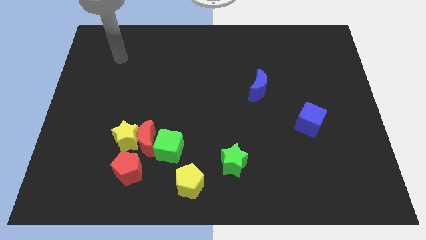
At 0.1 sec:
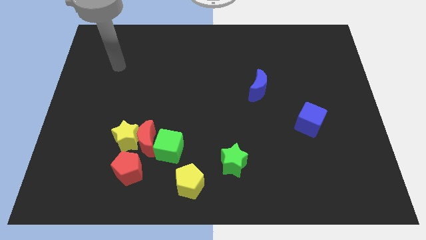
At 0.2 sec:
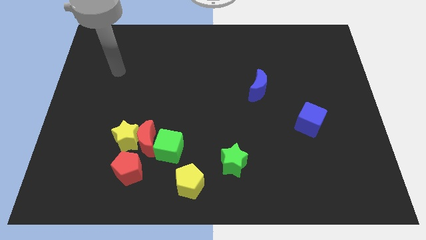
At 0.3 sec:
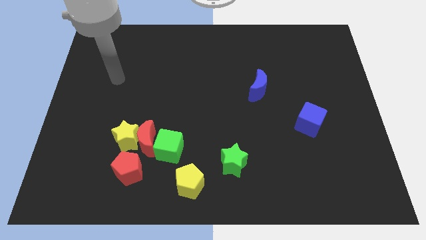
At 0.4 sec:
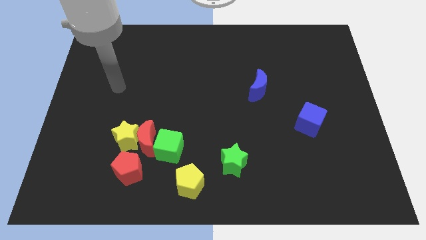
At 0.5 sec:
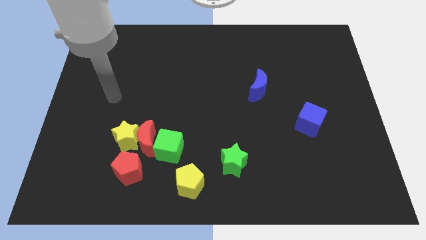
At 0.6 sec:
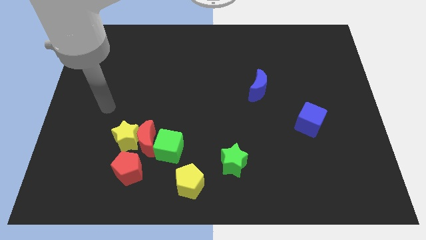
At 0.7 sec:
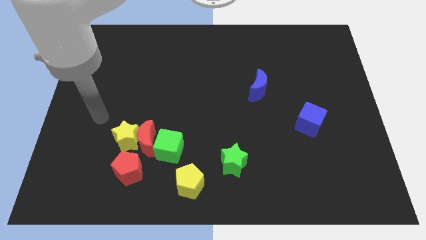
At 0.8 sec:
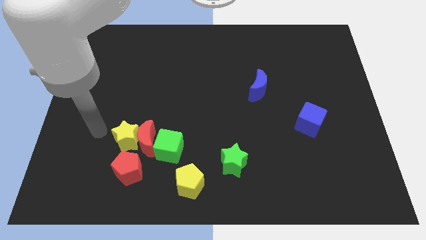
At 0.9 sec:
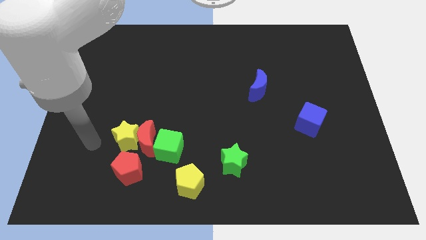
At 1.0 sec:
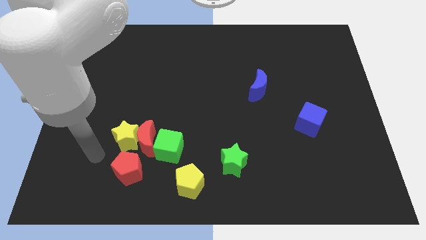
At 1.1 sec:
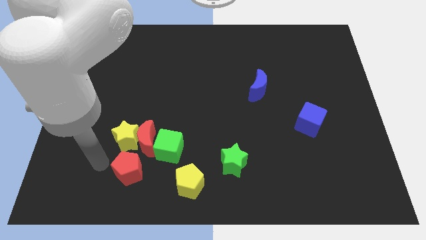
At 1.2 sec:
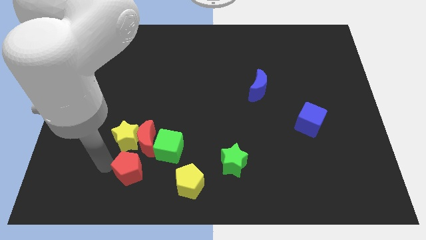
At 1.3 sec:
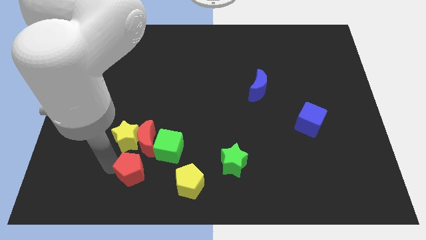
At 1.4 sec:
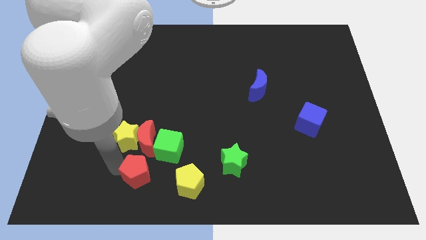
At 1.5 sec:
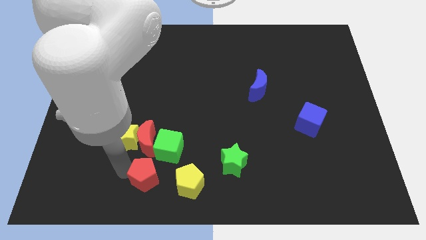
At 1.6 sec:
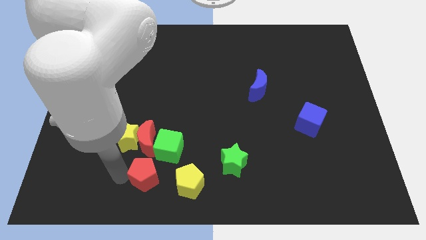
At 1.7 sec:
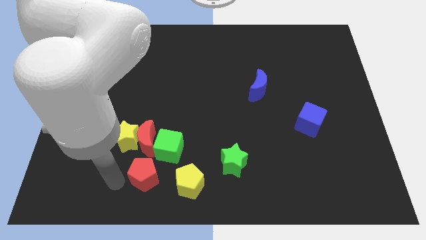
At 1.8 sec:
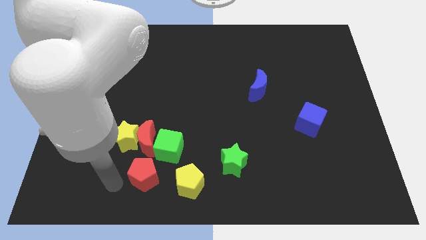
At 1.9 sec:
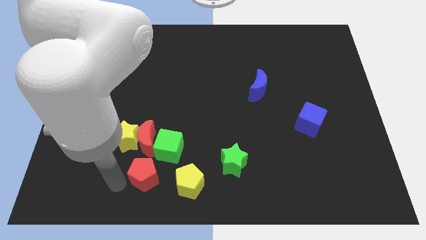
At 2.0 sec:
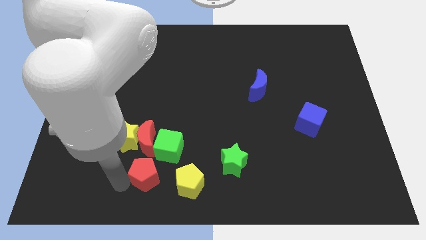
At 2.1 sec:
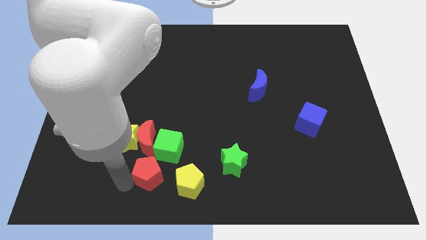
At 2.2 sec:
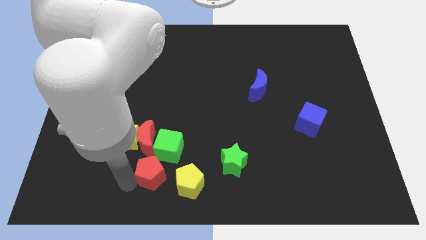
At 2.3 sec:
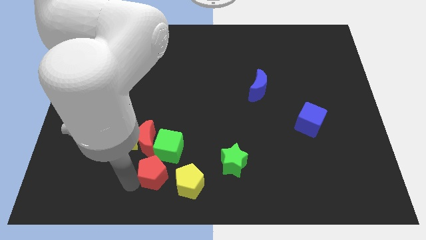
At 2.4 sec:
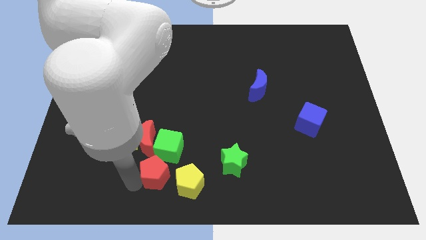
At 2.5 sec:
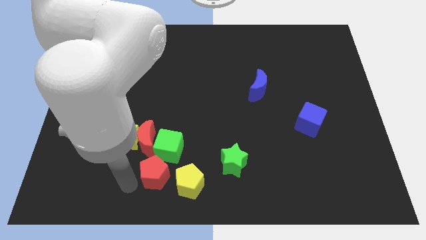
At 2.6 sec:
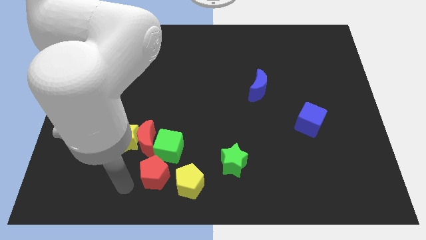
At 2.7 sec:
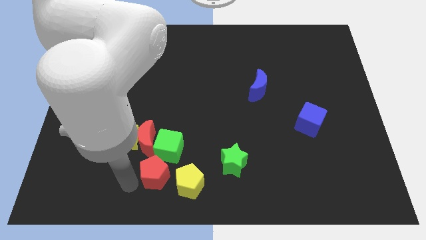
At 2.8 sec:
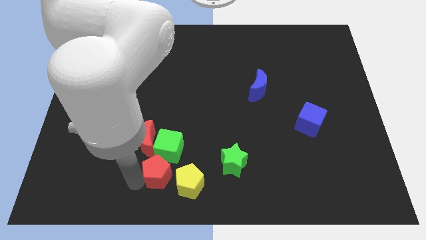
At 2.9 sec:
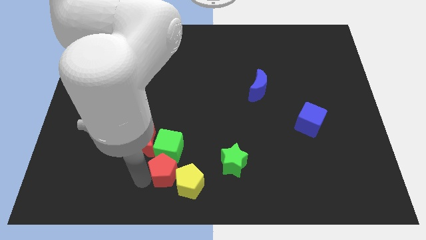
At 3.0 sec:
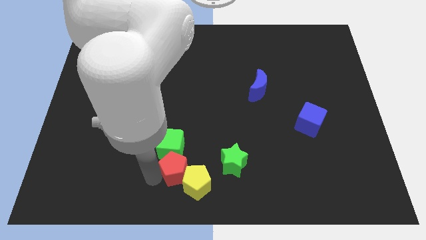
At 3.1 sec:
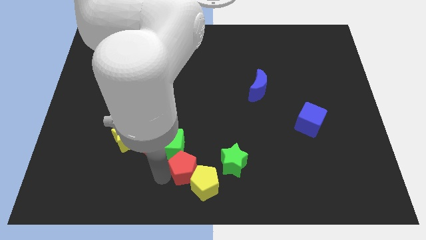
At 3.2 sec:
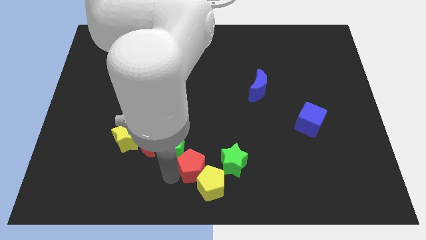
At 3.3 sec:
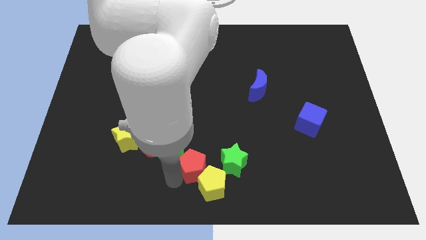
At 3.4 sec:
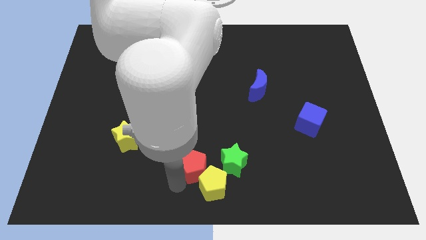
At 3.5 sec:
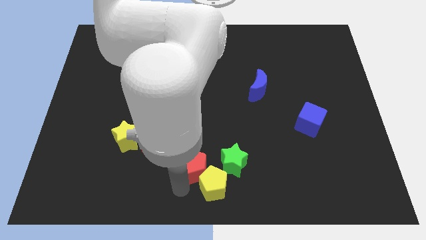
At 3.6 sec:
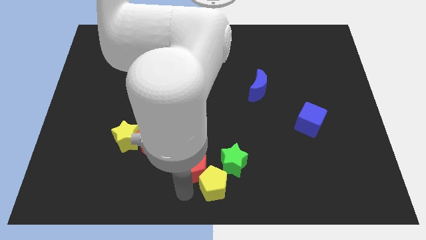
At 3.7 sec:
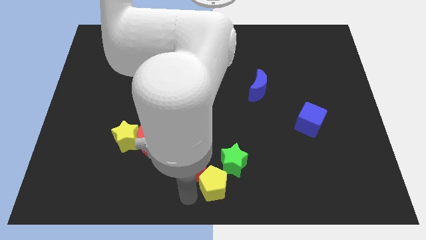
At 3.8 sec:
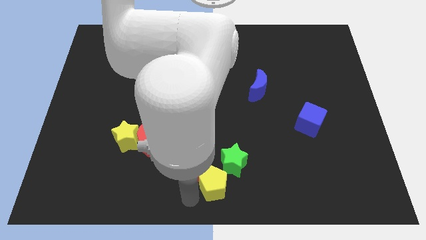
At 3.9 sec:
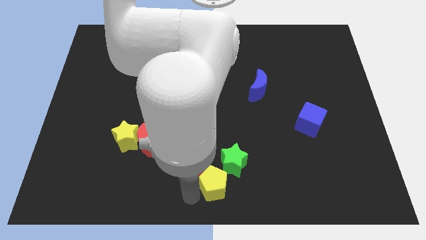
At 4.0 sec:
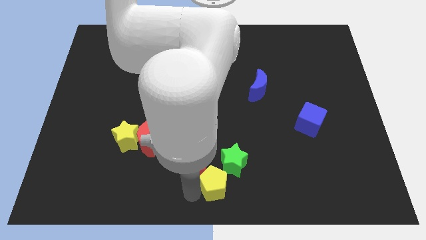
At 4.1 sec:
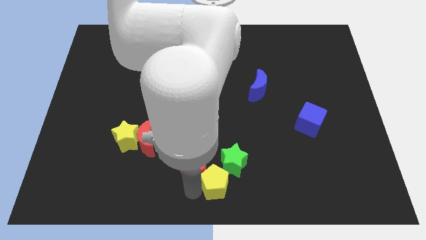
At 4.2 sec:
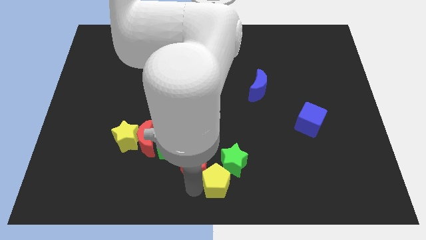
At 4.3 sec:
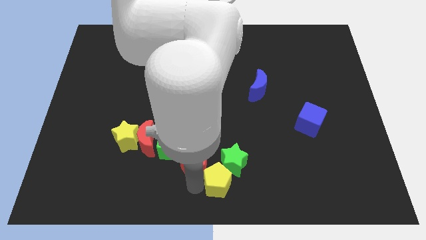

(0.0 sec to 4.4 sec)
slightly slide the red pentagon up and to the right diagonally

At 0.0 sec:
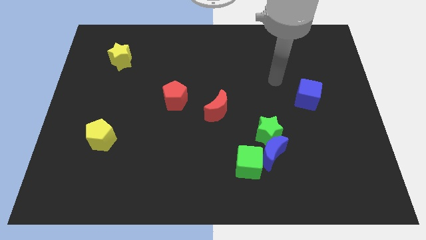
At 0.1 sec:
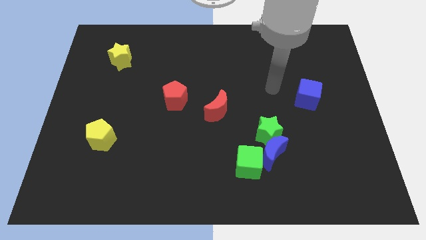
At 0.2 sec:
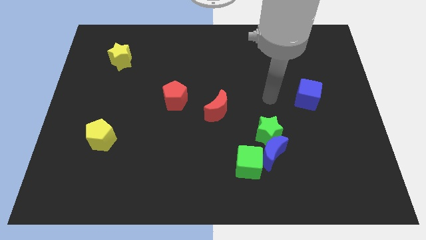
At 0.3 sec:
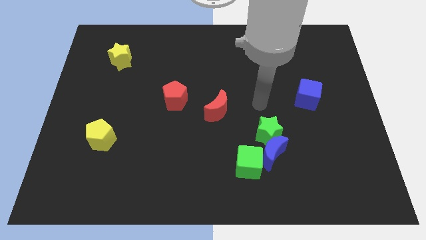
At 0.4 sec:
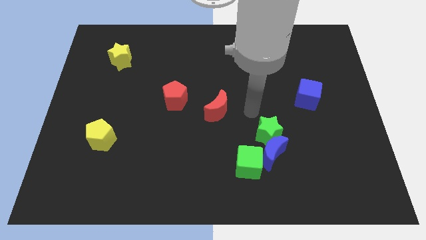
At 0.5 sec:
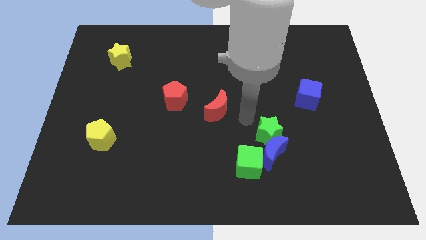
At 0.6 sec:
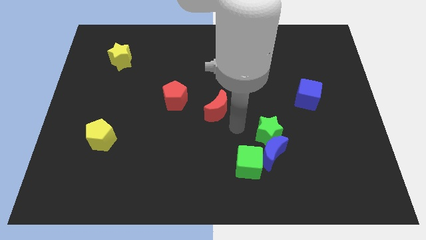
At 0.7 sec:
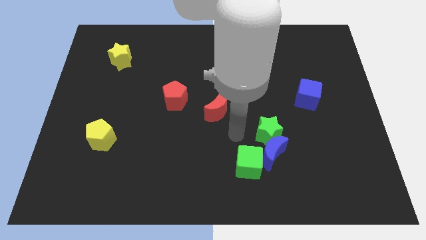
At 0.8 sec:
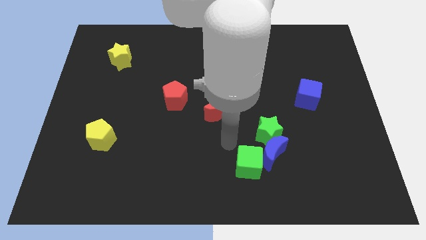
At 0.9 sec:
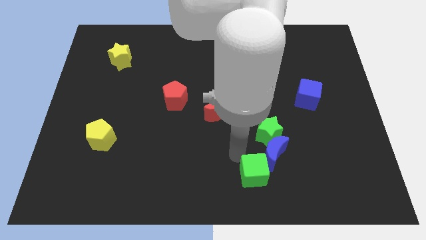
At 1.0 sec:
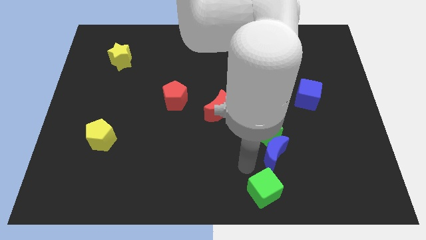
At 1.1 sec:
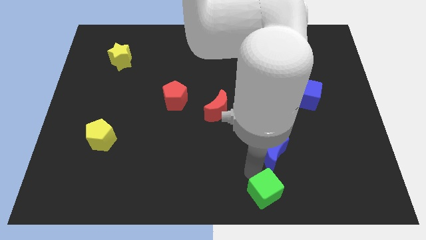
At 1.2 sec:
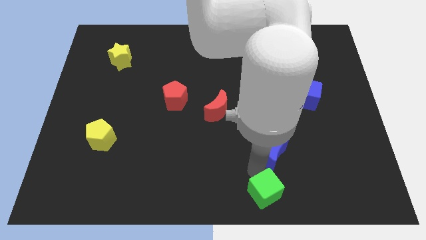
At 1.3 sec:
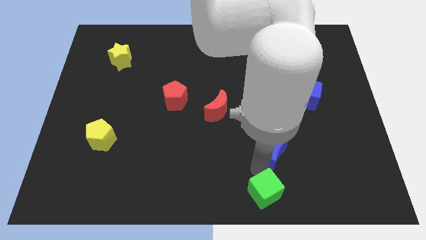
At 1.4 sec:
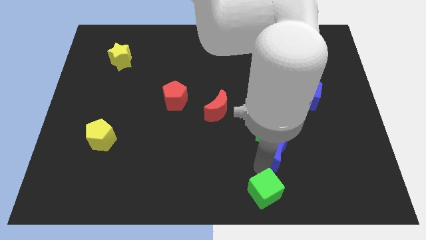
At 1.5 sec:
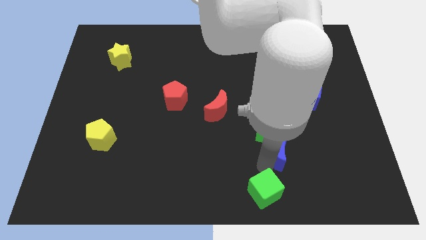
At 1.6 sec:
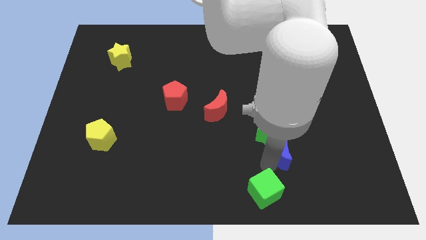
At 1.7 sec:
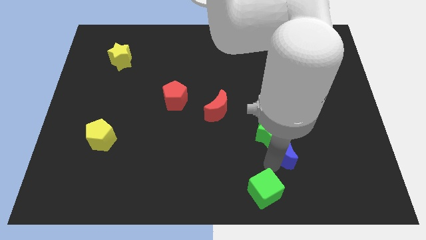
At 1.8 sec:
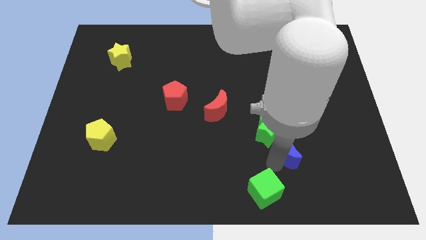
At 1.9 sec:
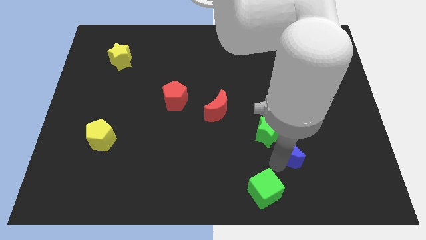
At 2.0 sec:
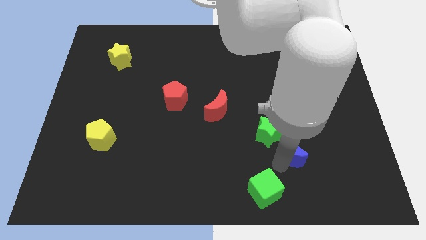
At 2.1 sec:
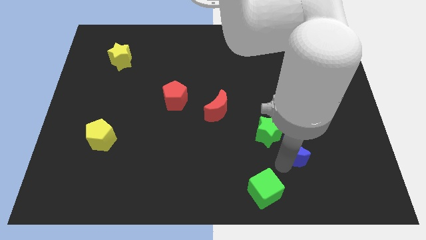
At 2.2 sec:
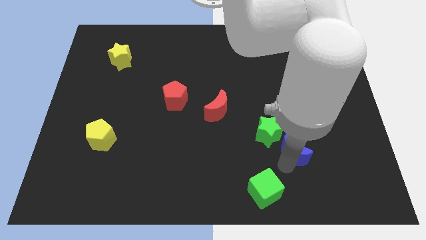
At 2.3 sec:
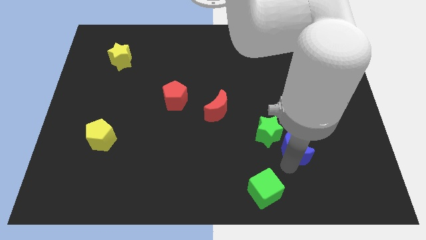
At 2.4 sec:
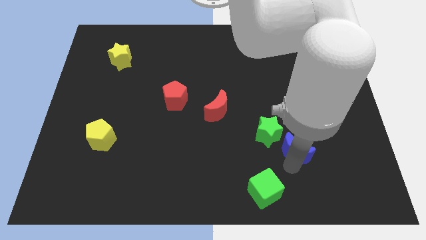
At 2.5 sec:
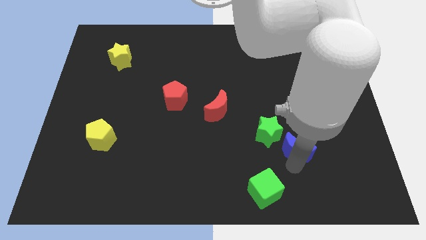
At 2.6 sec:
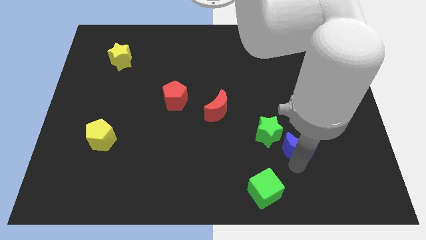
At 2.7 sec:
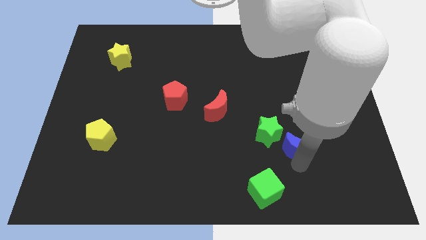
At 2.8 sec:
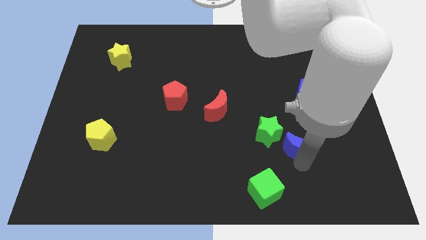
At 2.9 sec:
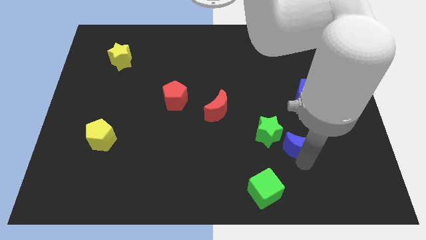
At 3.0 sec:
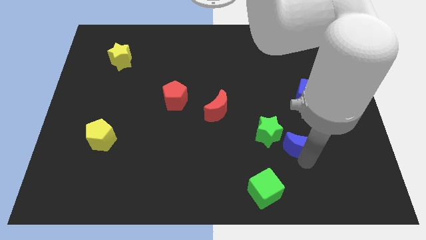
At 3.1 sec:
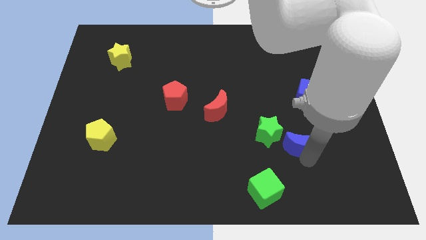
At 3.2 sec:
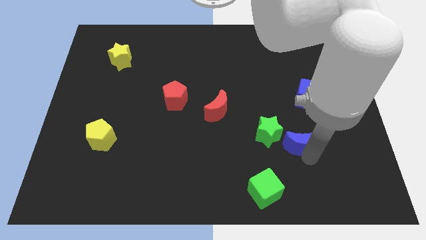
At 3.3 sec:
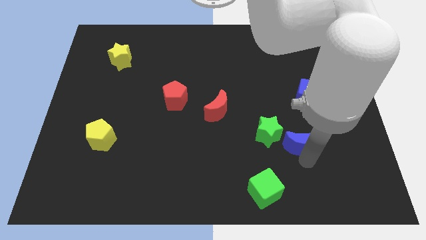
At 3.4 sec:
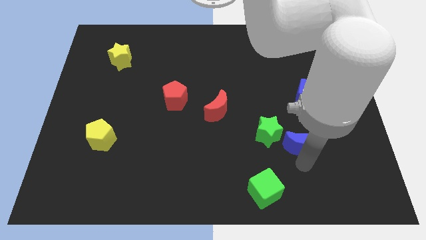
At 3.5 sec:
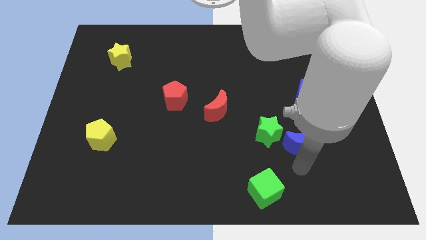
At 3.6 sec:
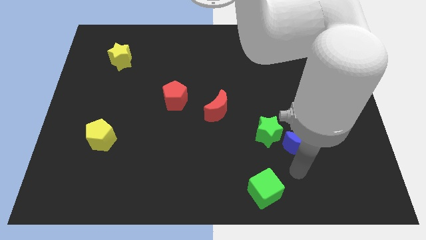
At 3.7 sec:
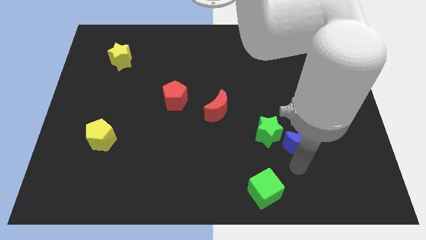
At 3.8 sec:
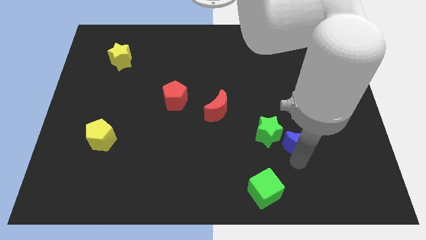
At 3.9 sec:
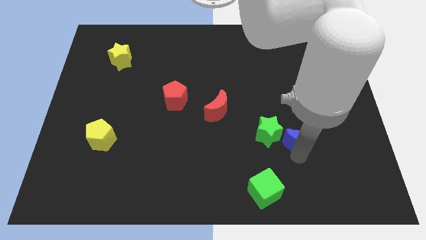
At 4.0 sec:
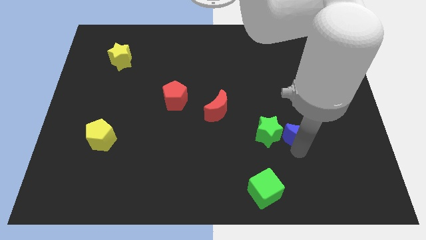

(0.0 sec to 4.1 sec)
push the blue moon diagonally upwards and to the right a little
